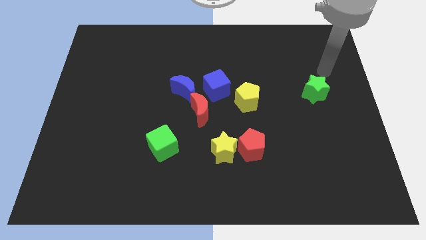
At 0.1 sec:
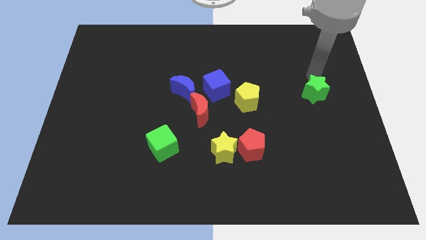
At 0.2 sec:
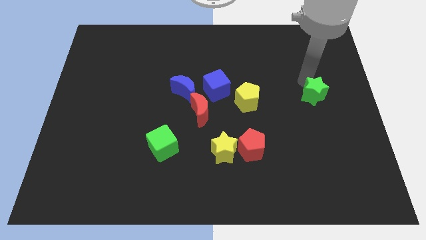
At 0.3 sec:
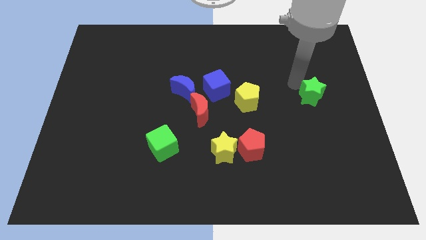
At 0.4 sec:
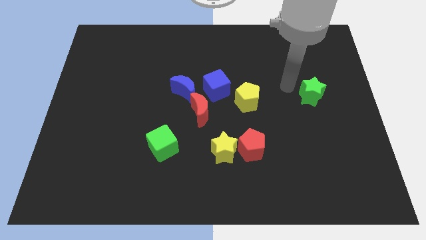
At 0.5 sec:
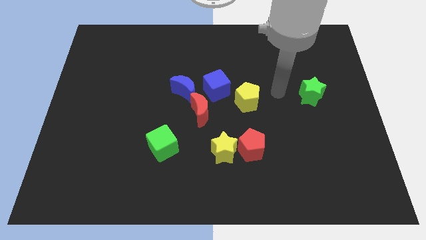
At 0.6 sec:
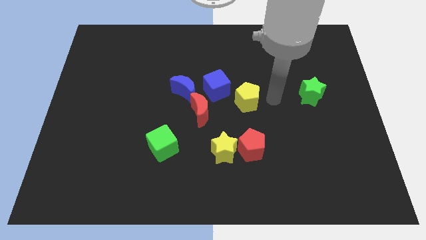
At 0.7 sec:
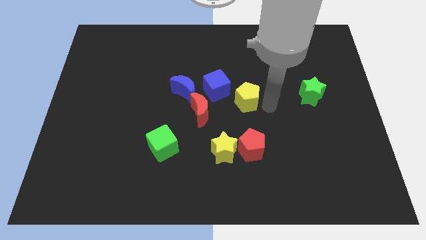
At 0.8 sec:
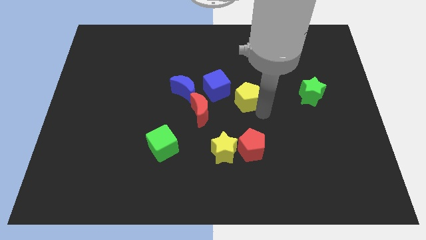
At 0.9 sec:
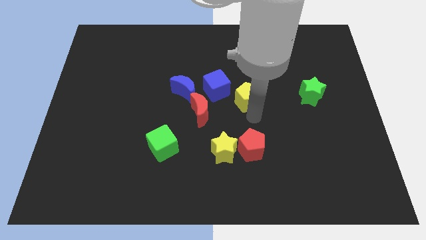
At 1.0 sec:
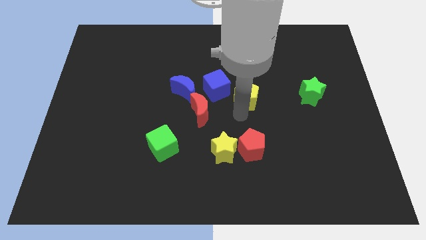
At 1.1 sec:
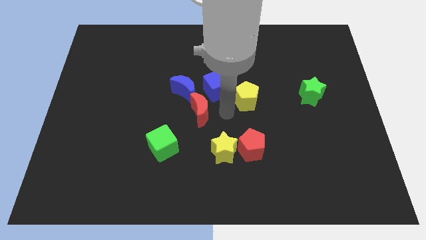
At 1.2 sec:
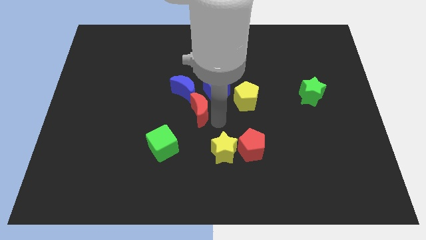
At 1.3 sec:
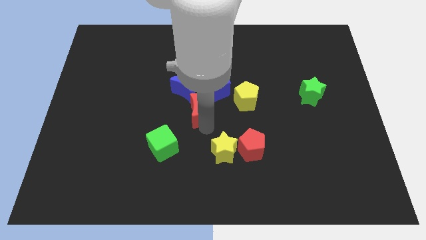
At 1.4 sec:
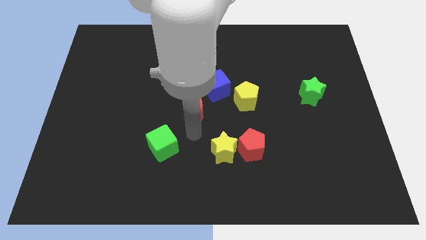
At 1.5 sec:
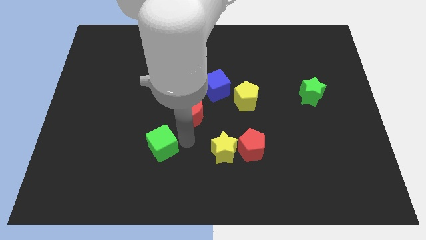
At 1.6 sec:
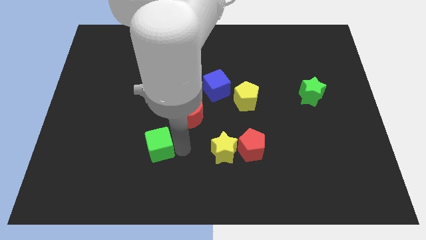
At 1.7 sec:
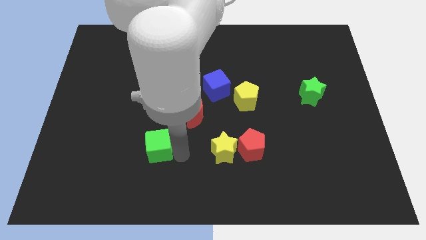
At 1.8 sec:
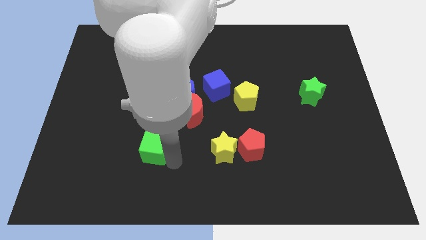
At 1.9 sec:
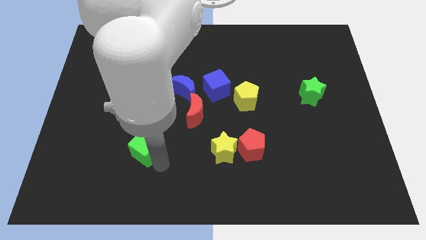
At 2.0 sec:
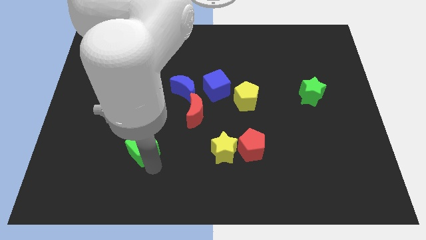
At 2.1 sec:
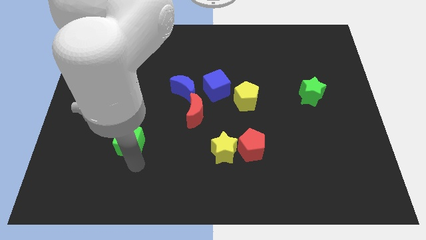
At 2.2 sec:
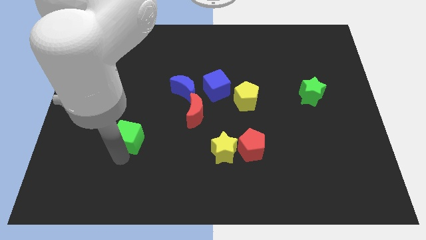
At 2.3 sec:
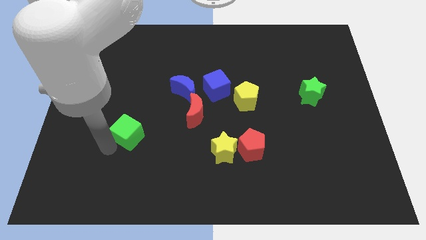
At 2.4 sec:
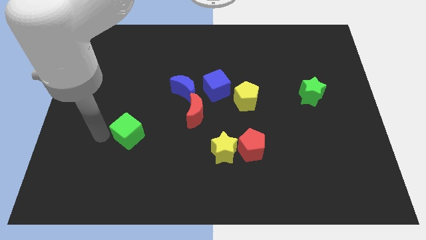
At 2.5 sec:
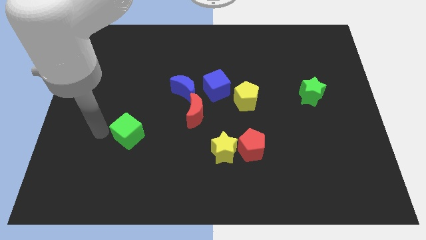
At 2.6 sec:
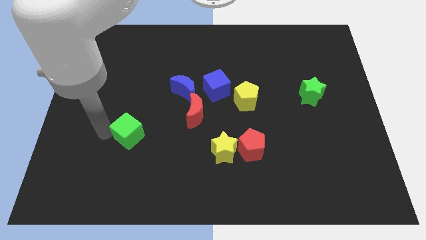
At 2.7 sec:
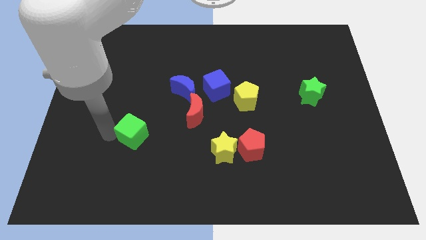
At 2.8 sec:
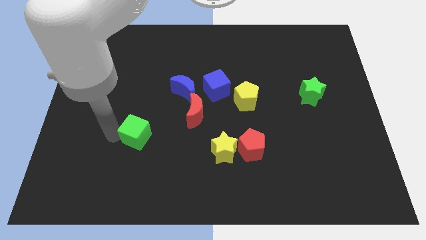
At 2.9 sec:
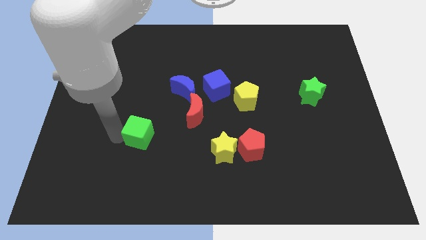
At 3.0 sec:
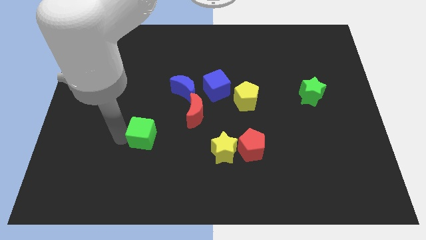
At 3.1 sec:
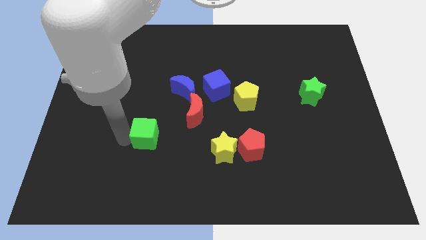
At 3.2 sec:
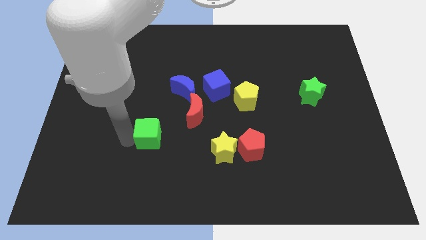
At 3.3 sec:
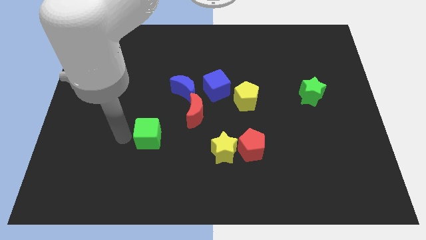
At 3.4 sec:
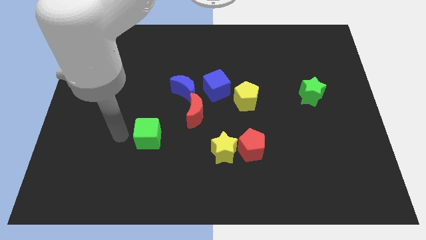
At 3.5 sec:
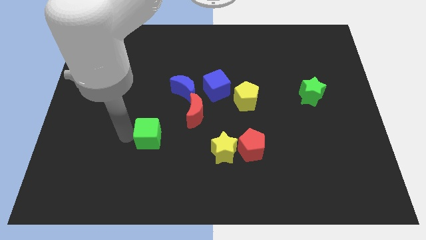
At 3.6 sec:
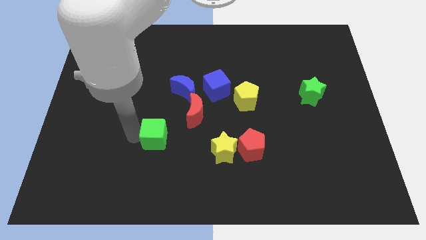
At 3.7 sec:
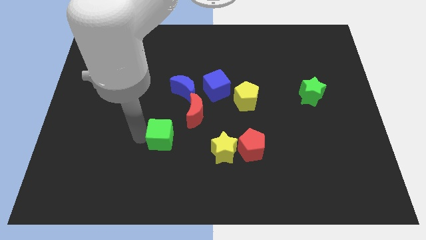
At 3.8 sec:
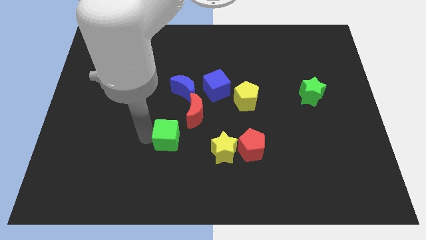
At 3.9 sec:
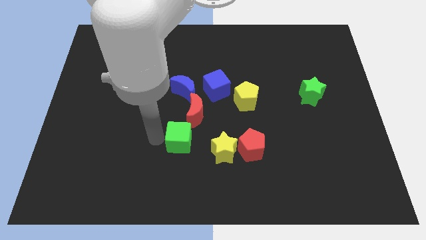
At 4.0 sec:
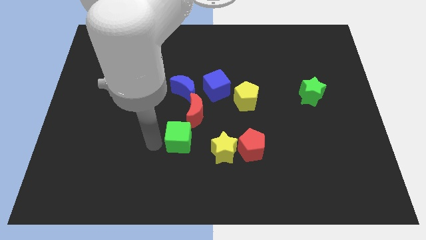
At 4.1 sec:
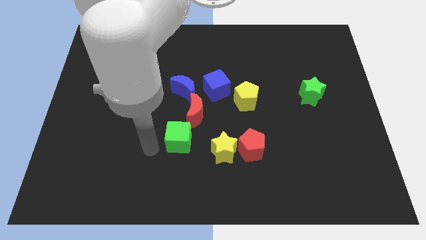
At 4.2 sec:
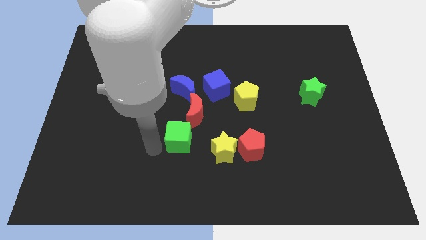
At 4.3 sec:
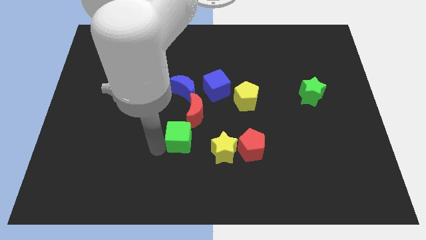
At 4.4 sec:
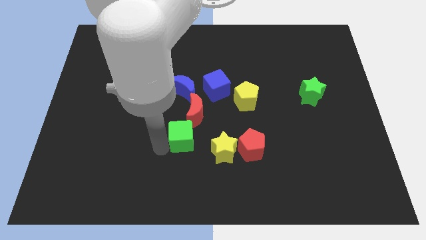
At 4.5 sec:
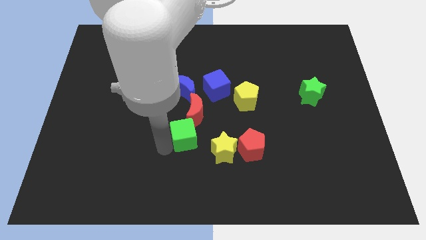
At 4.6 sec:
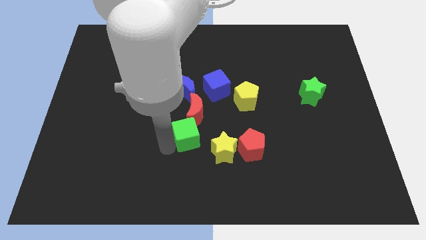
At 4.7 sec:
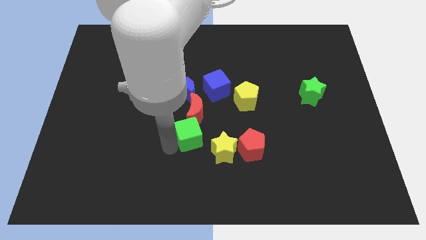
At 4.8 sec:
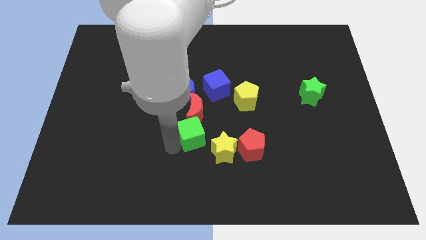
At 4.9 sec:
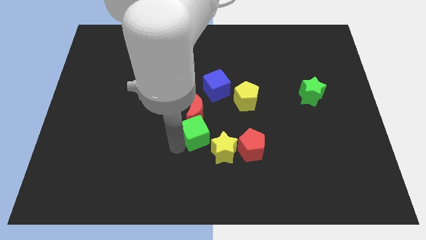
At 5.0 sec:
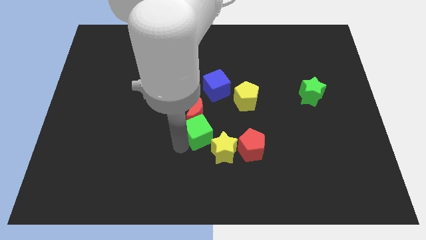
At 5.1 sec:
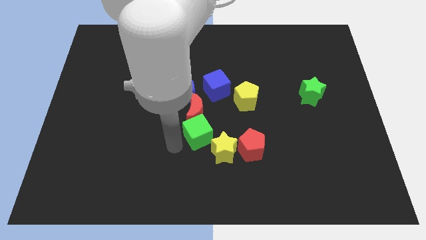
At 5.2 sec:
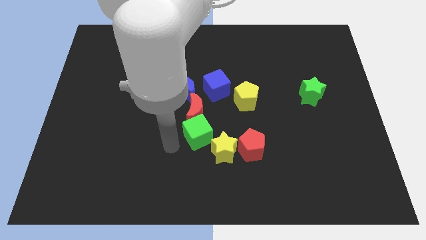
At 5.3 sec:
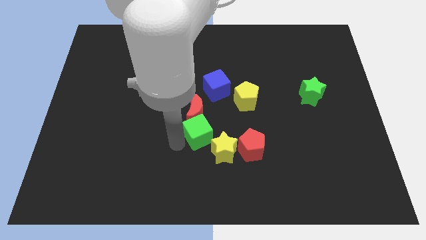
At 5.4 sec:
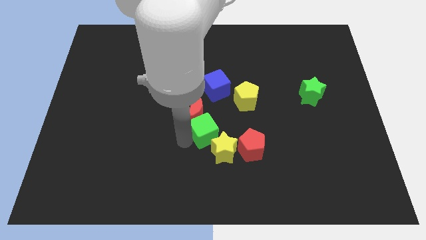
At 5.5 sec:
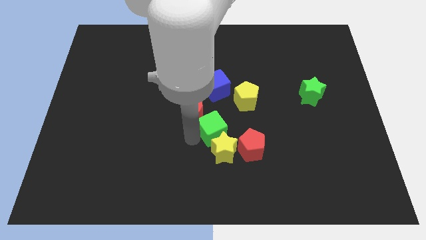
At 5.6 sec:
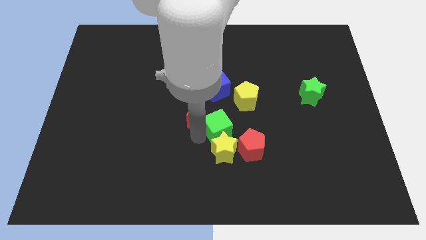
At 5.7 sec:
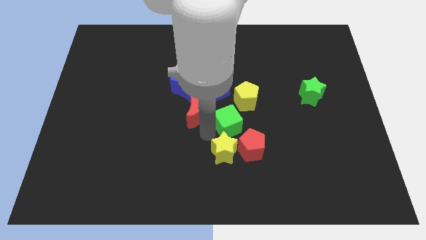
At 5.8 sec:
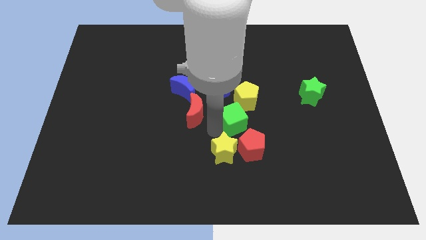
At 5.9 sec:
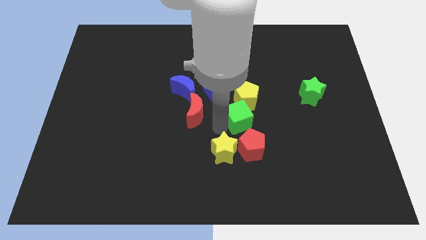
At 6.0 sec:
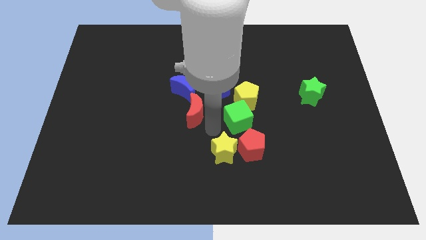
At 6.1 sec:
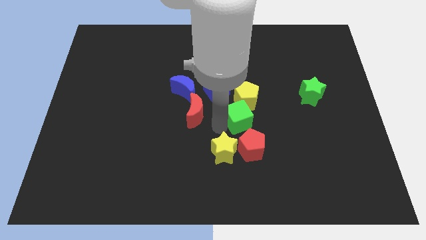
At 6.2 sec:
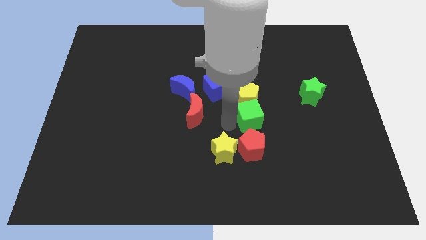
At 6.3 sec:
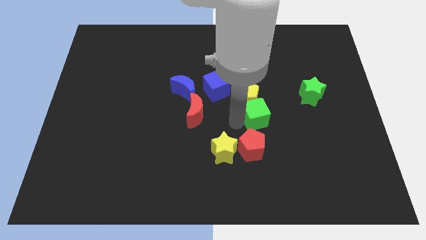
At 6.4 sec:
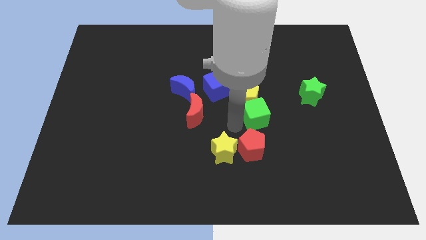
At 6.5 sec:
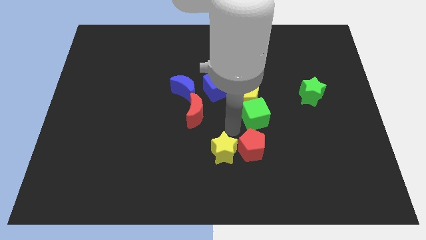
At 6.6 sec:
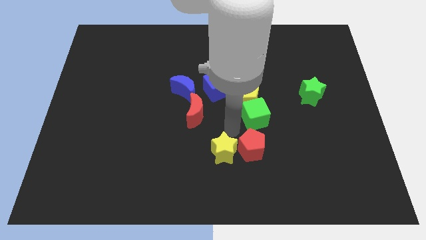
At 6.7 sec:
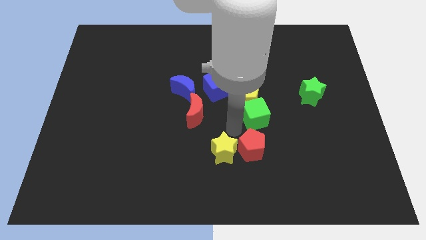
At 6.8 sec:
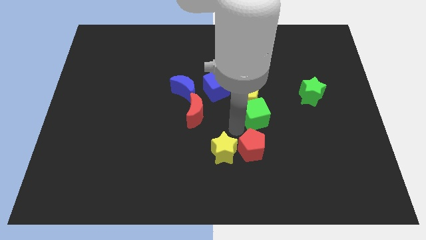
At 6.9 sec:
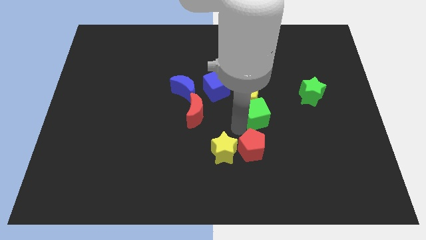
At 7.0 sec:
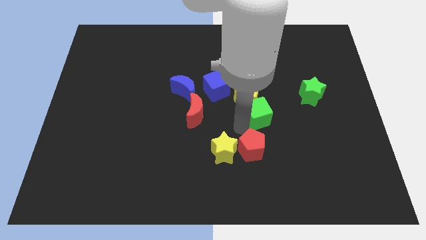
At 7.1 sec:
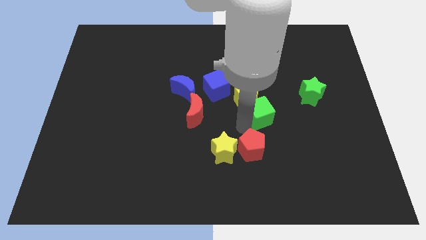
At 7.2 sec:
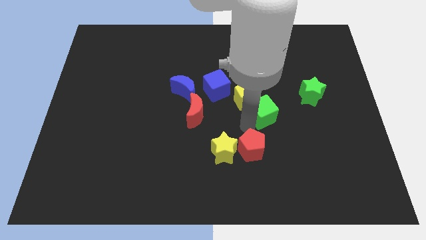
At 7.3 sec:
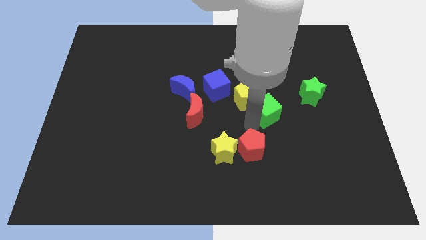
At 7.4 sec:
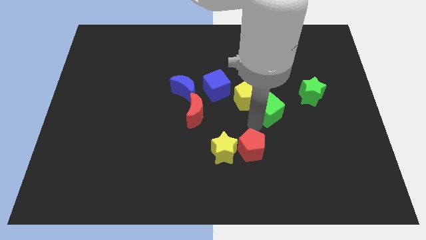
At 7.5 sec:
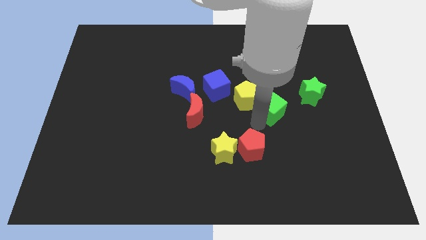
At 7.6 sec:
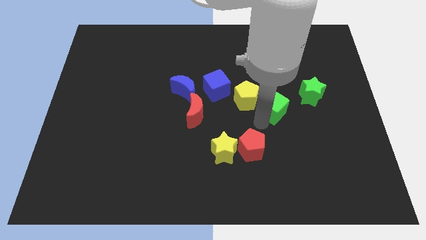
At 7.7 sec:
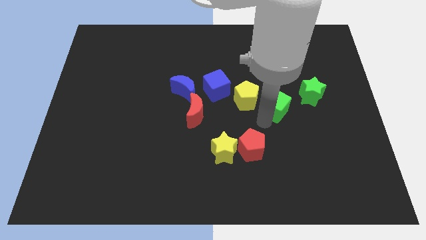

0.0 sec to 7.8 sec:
move the green cube up and then to the right

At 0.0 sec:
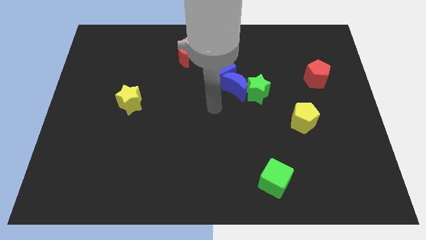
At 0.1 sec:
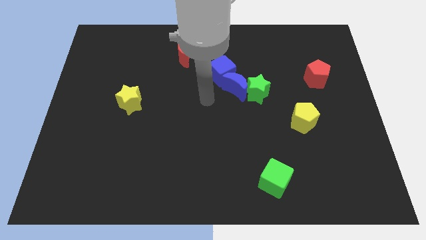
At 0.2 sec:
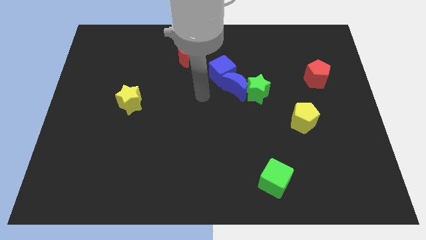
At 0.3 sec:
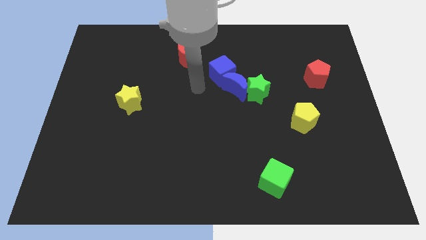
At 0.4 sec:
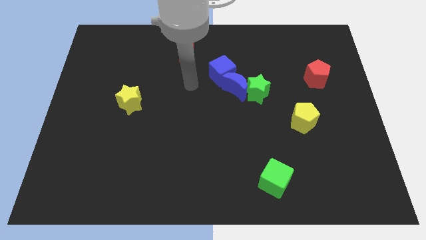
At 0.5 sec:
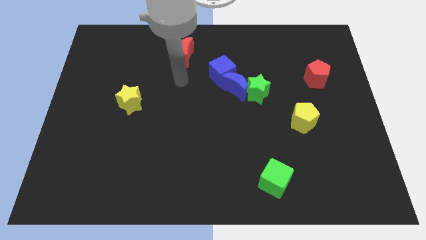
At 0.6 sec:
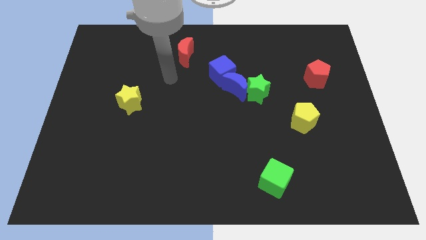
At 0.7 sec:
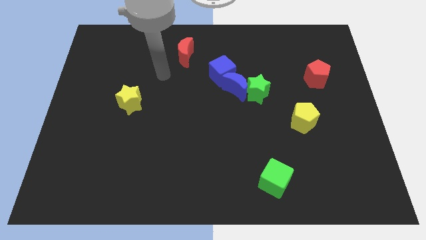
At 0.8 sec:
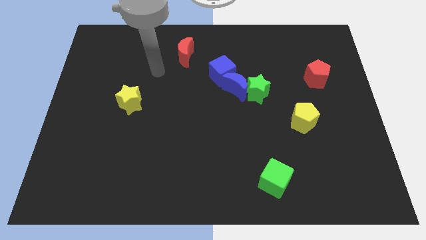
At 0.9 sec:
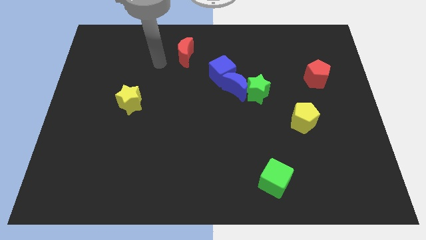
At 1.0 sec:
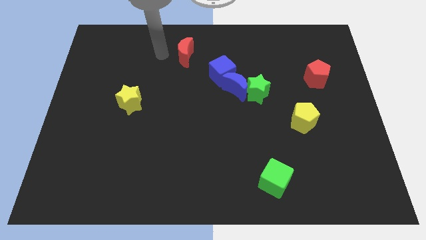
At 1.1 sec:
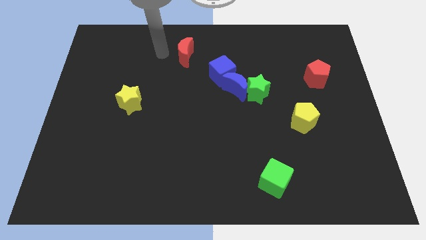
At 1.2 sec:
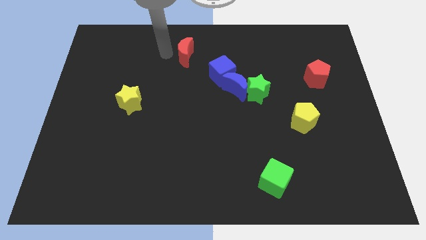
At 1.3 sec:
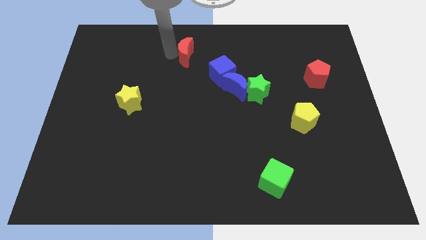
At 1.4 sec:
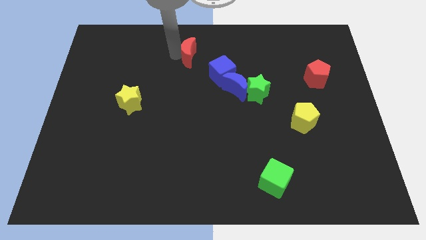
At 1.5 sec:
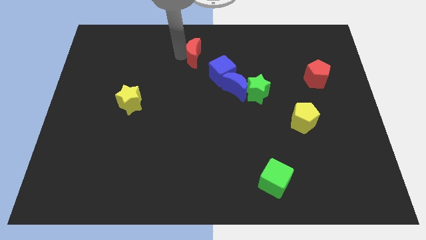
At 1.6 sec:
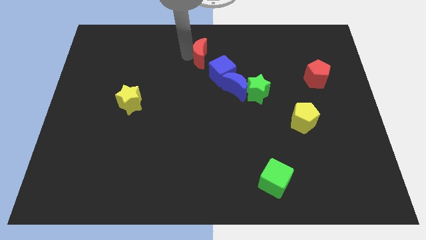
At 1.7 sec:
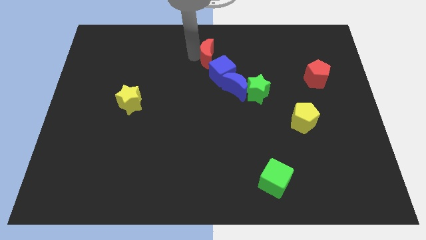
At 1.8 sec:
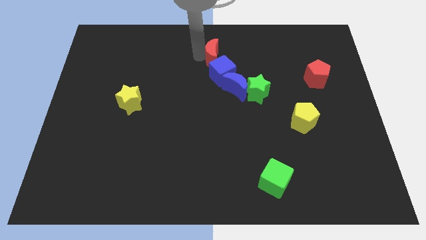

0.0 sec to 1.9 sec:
slide the red moon somewhat to the right
